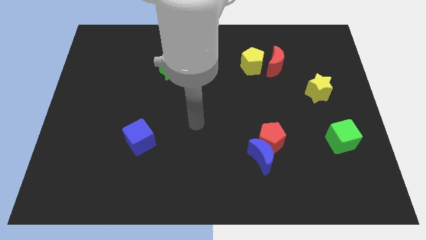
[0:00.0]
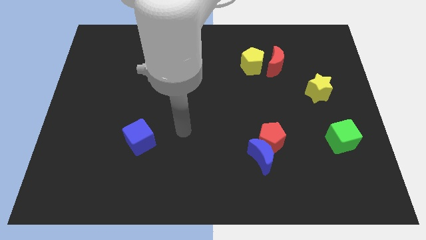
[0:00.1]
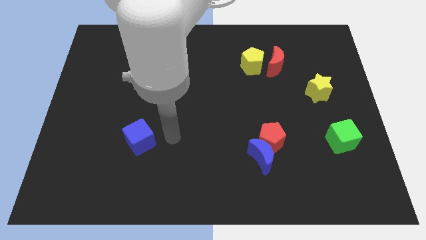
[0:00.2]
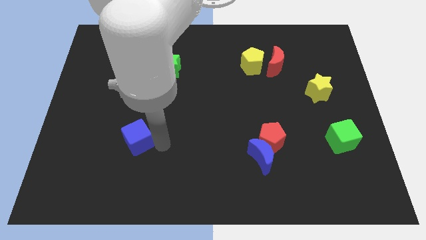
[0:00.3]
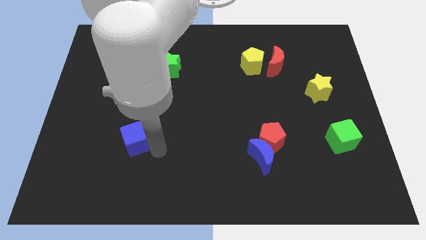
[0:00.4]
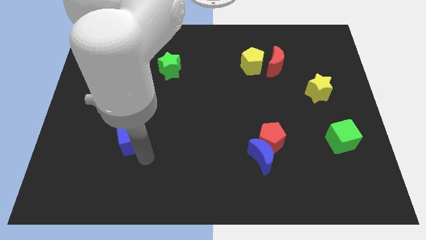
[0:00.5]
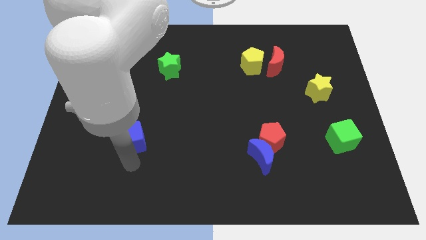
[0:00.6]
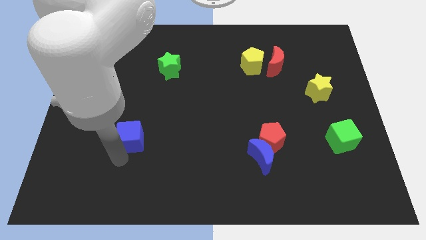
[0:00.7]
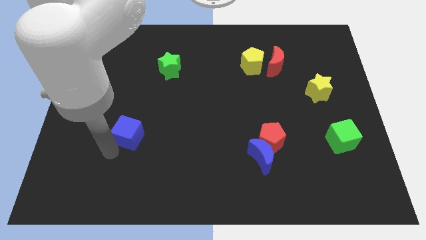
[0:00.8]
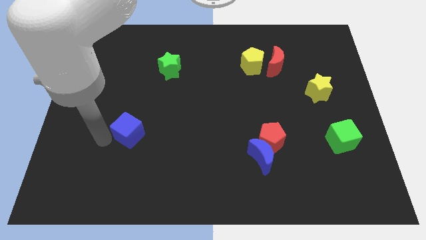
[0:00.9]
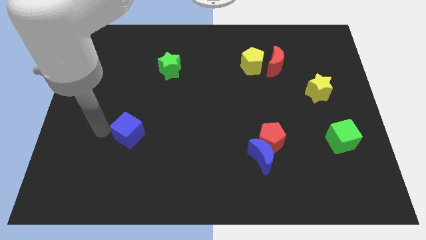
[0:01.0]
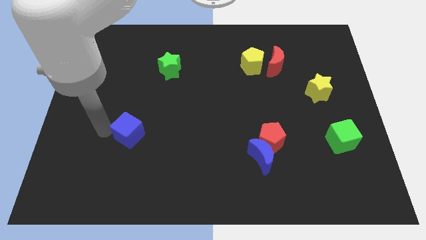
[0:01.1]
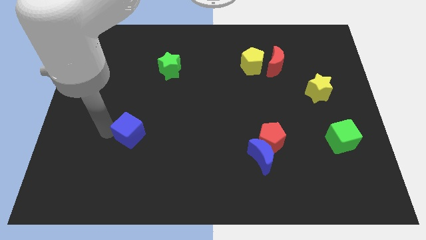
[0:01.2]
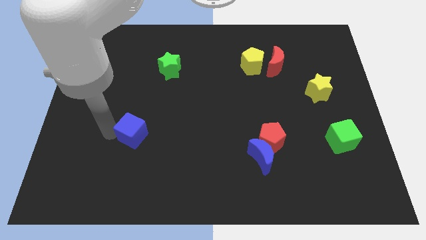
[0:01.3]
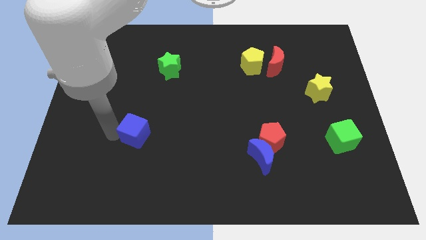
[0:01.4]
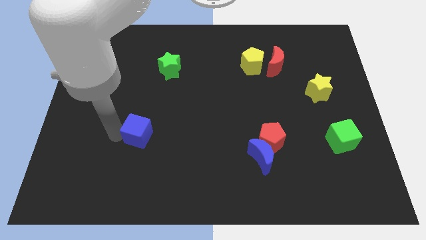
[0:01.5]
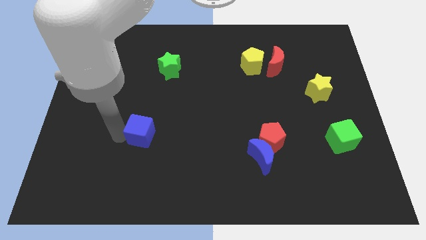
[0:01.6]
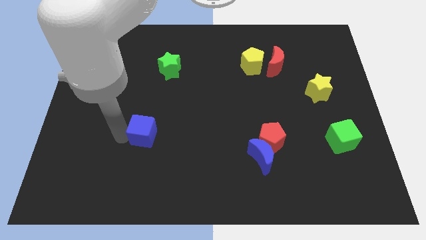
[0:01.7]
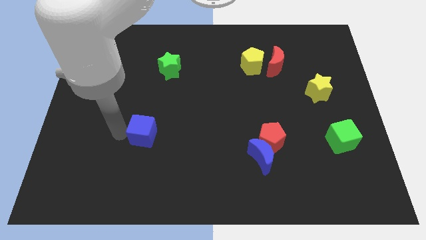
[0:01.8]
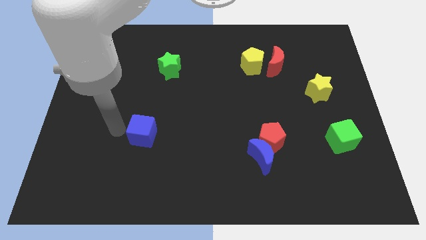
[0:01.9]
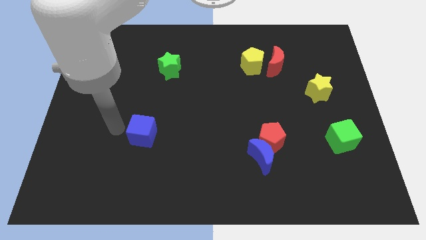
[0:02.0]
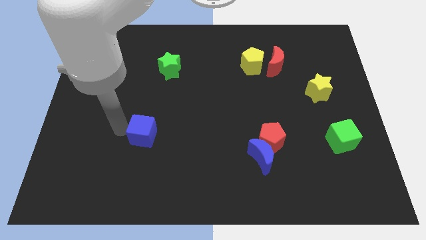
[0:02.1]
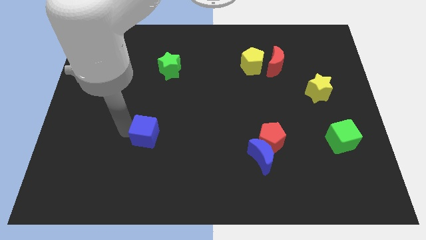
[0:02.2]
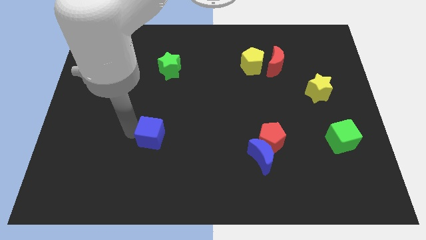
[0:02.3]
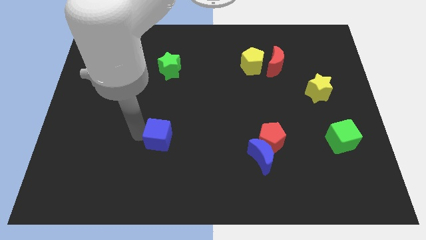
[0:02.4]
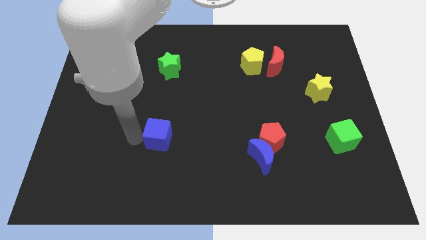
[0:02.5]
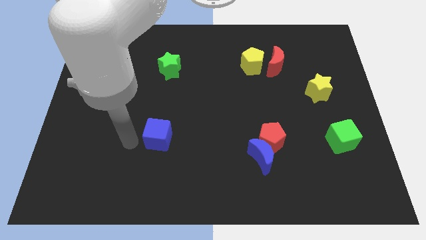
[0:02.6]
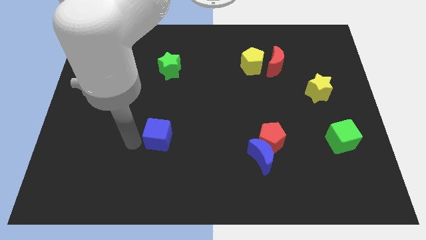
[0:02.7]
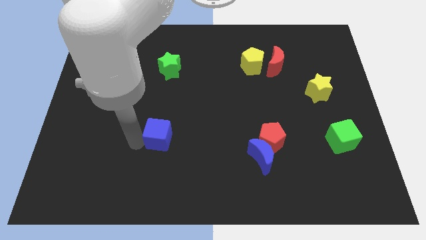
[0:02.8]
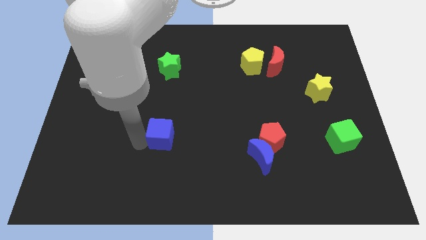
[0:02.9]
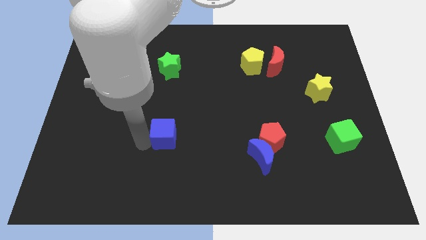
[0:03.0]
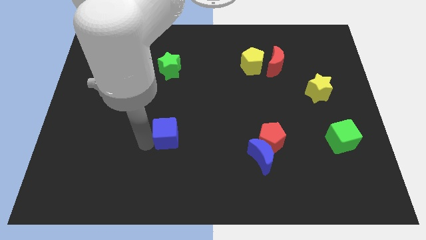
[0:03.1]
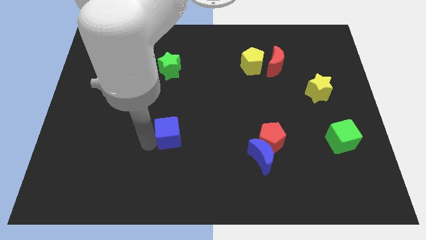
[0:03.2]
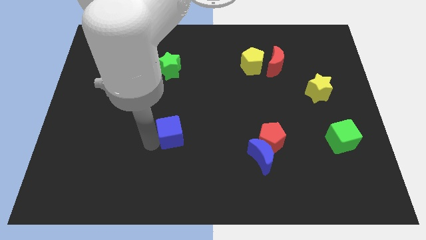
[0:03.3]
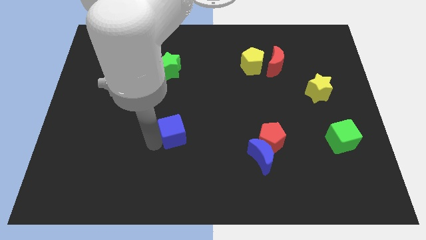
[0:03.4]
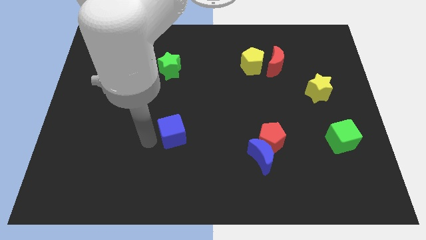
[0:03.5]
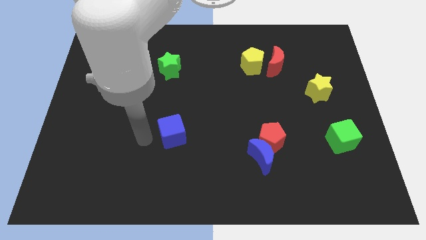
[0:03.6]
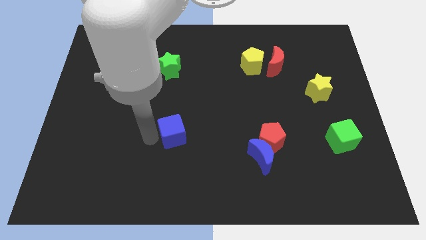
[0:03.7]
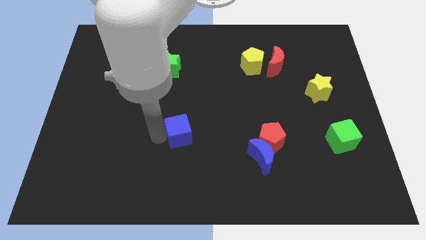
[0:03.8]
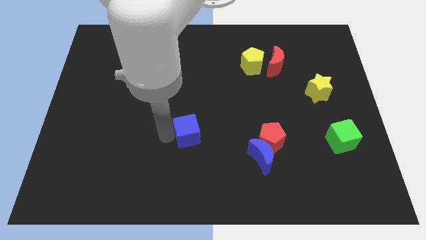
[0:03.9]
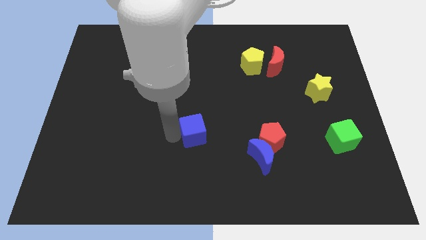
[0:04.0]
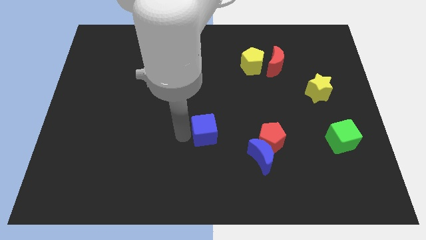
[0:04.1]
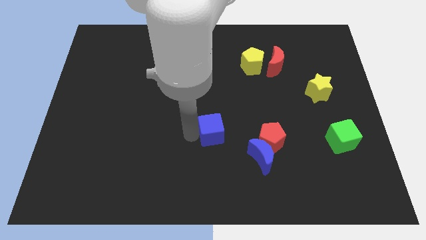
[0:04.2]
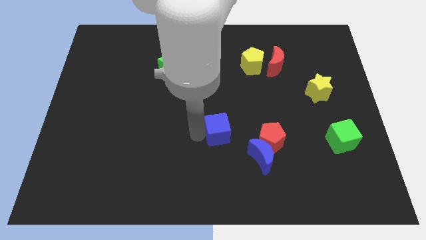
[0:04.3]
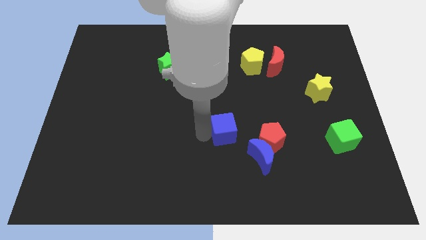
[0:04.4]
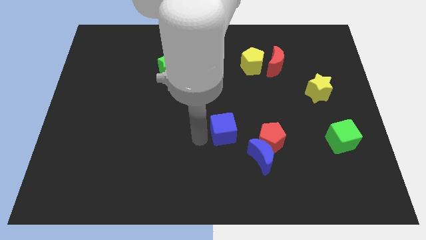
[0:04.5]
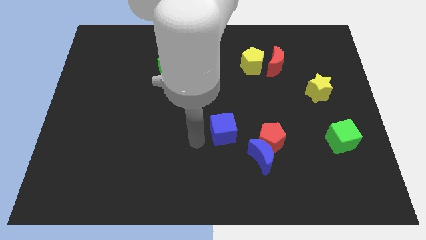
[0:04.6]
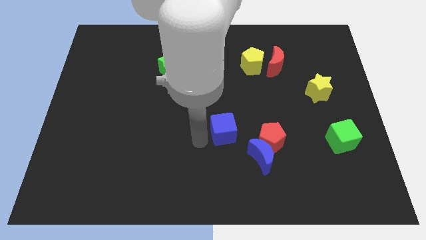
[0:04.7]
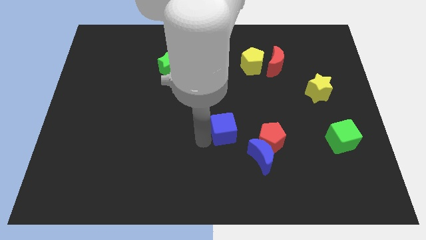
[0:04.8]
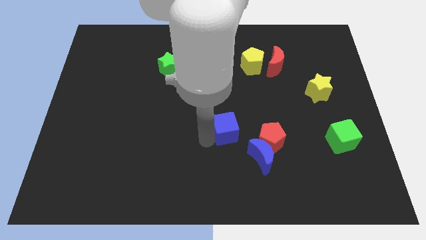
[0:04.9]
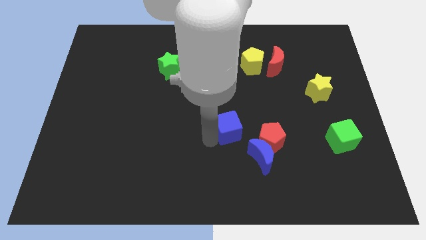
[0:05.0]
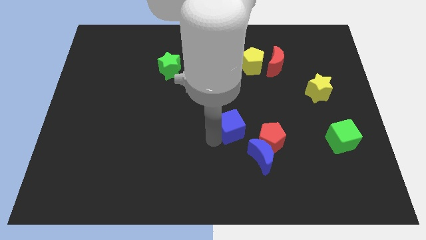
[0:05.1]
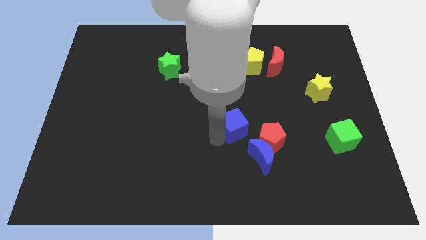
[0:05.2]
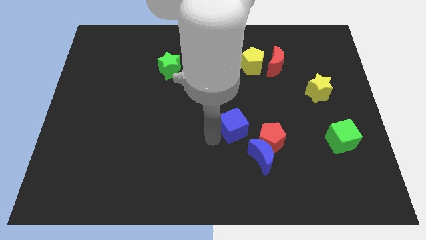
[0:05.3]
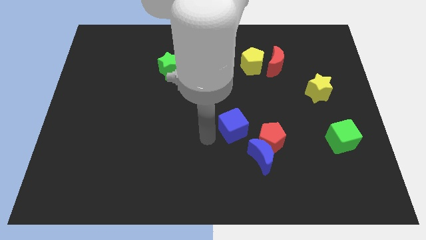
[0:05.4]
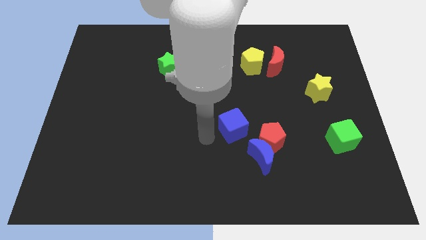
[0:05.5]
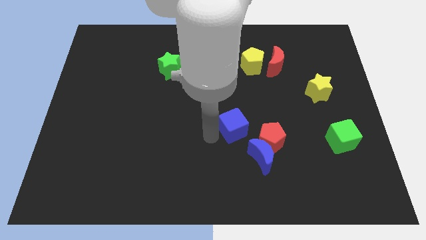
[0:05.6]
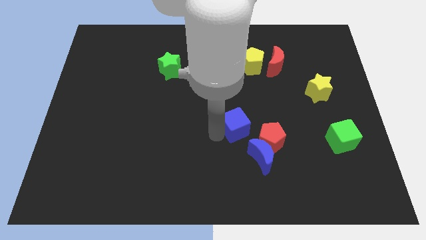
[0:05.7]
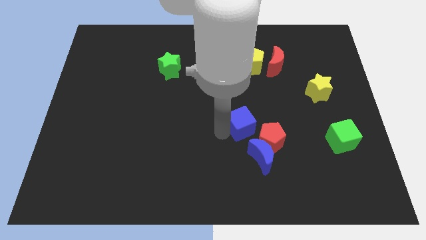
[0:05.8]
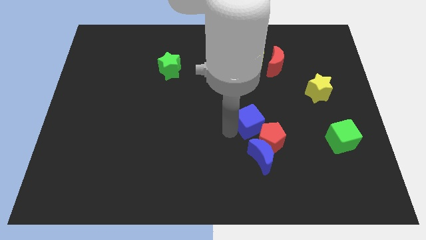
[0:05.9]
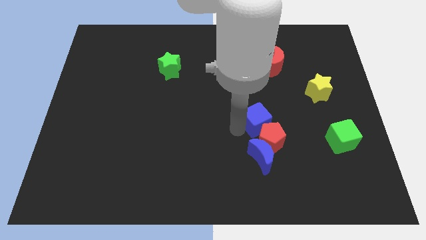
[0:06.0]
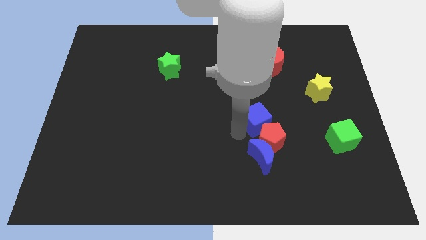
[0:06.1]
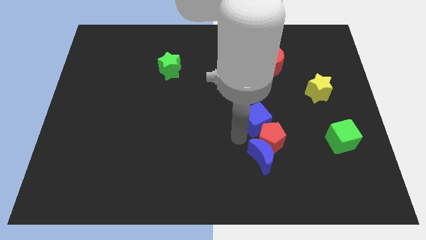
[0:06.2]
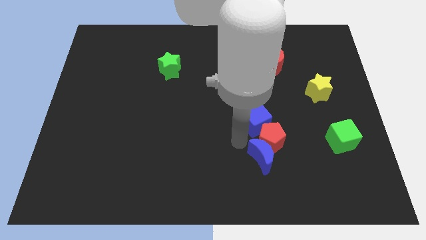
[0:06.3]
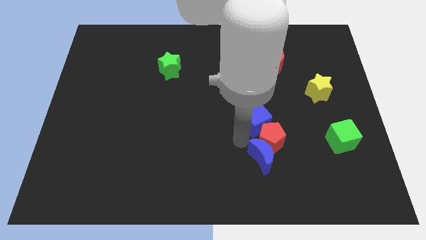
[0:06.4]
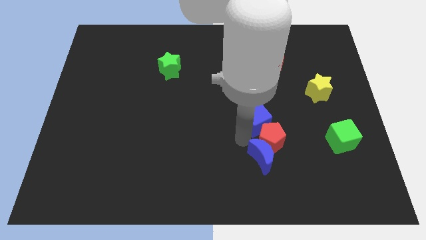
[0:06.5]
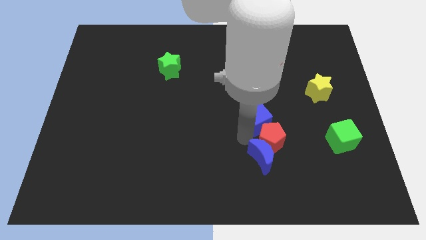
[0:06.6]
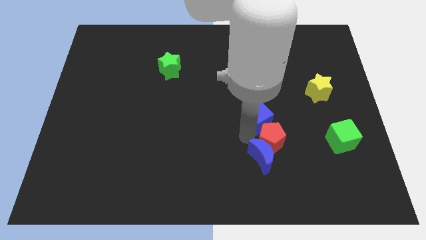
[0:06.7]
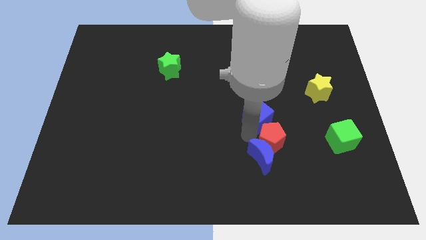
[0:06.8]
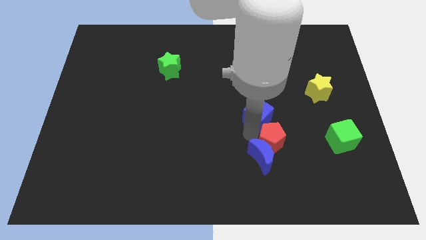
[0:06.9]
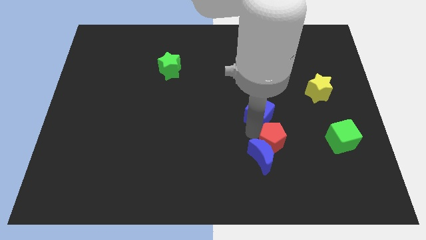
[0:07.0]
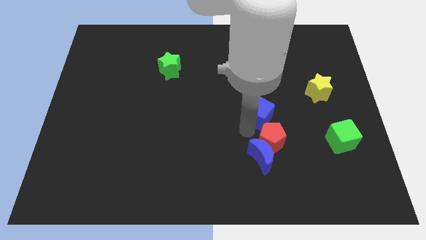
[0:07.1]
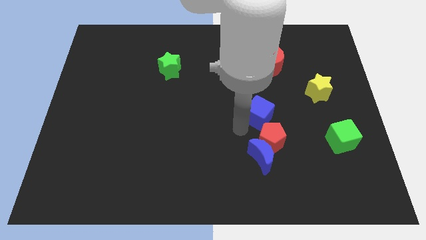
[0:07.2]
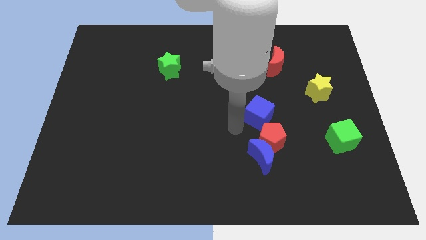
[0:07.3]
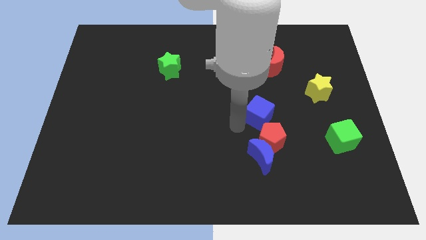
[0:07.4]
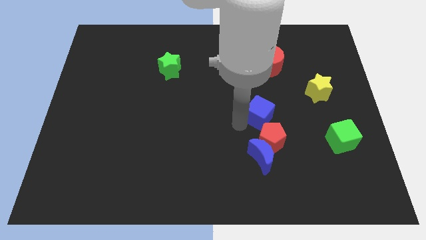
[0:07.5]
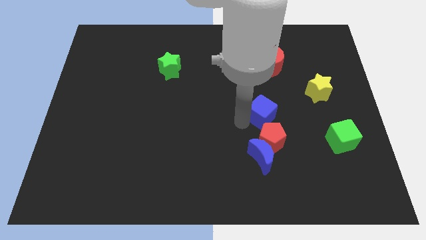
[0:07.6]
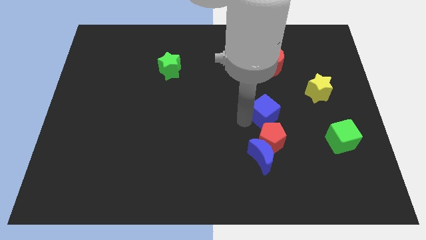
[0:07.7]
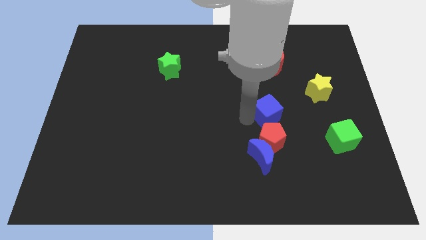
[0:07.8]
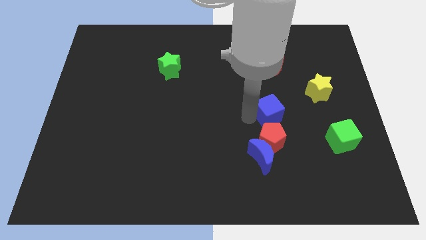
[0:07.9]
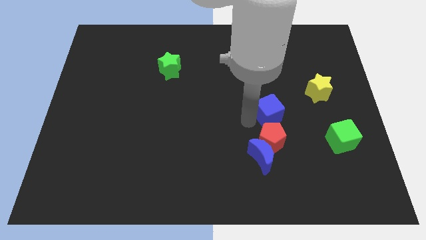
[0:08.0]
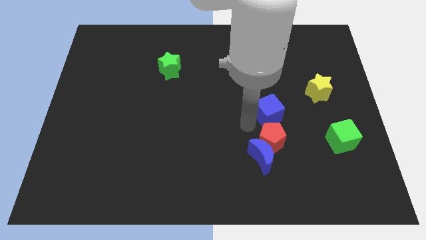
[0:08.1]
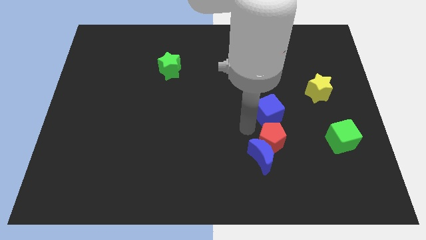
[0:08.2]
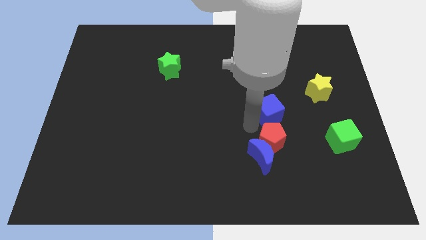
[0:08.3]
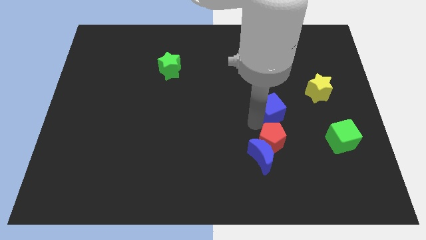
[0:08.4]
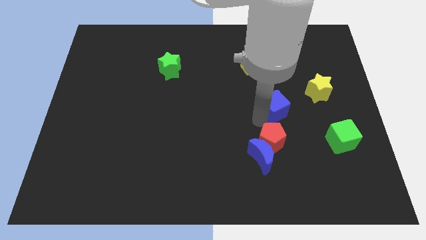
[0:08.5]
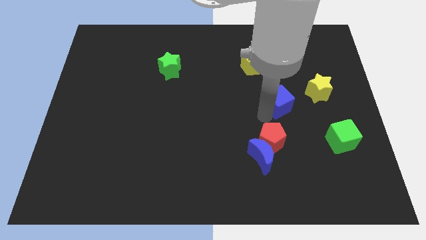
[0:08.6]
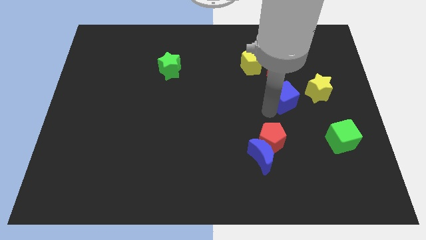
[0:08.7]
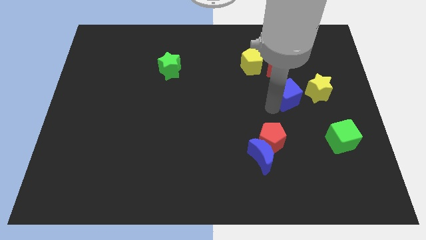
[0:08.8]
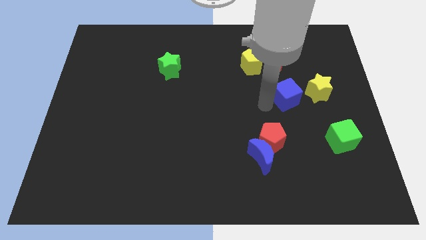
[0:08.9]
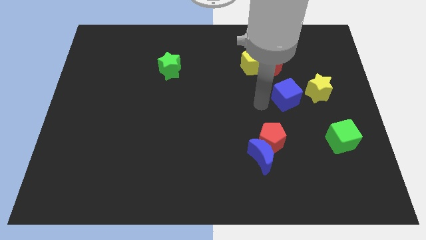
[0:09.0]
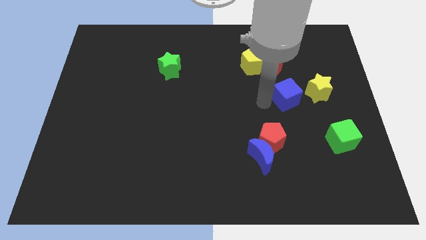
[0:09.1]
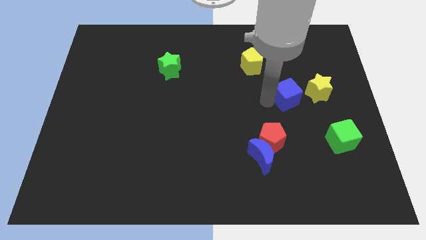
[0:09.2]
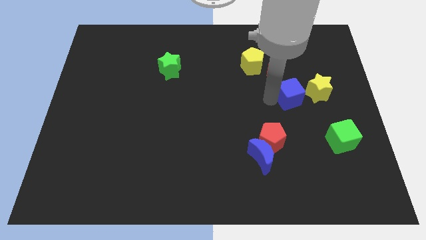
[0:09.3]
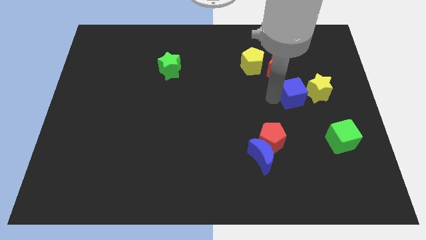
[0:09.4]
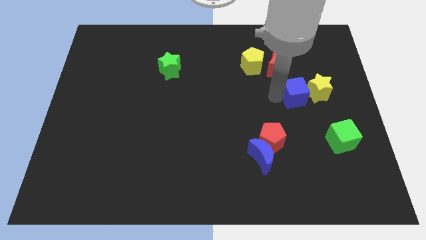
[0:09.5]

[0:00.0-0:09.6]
put the blue cube towards the yellow star
